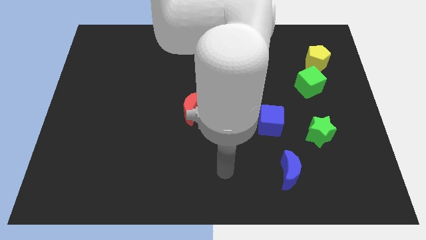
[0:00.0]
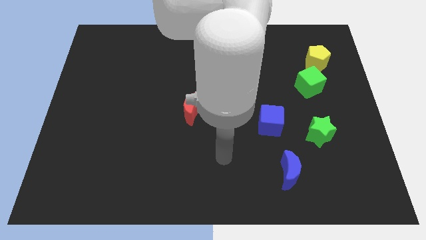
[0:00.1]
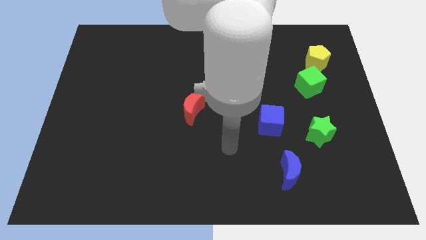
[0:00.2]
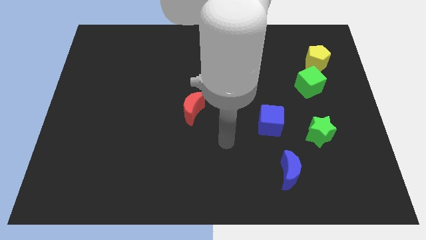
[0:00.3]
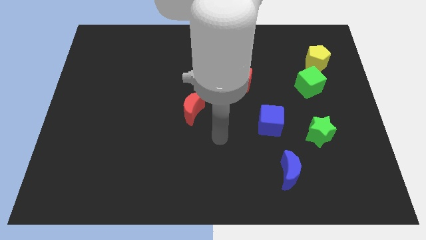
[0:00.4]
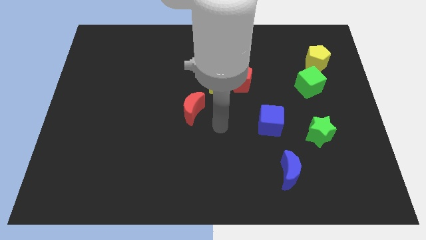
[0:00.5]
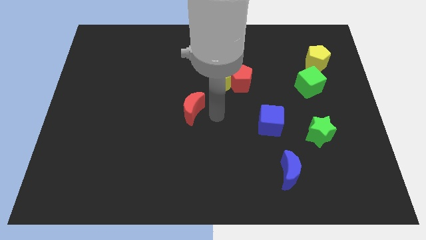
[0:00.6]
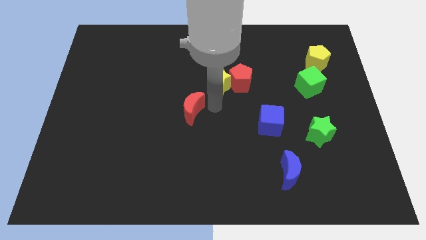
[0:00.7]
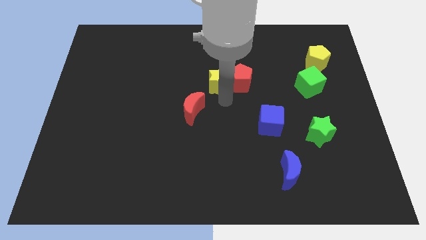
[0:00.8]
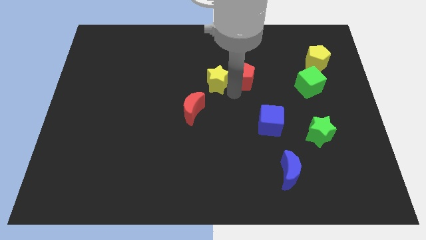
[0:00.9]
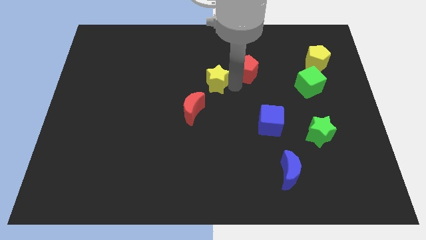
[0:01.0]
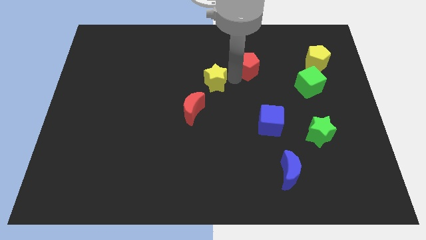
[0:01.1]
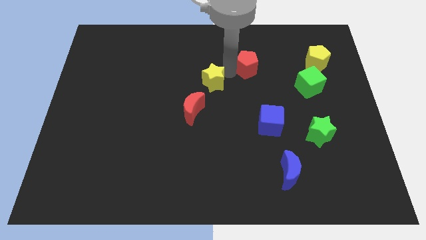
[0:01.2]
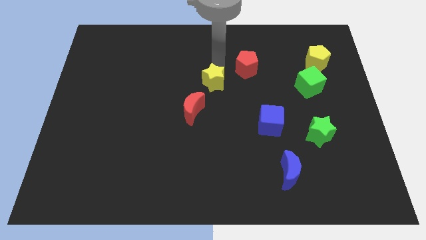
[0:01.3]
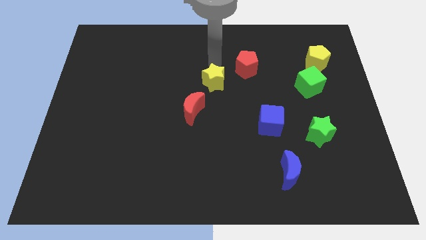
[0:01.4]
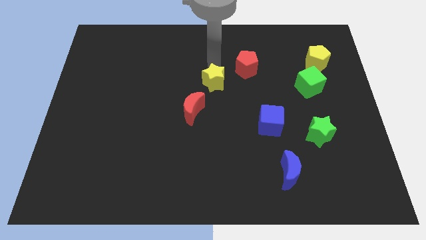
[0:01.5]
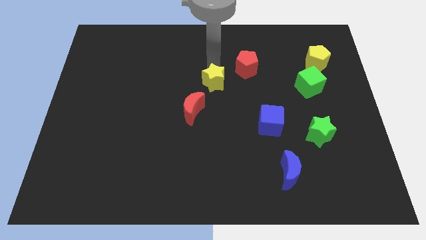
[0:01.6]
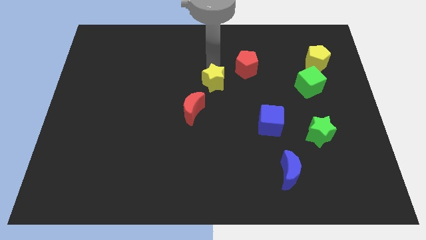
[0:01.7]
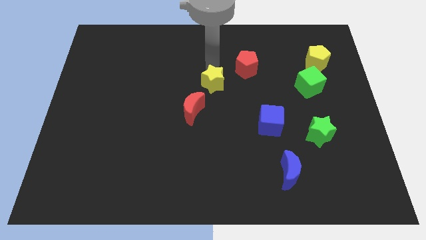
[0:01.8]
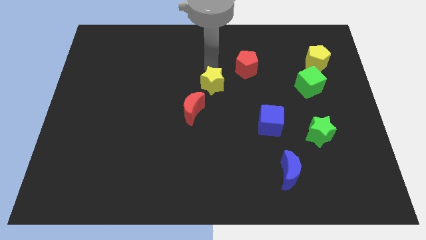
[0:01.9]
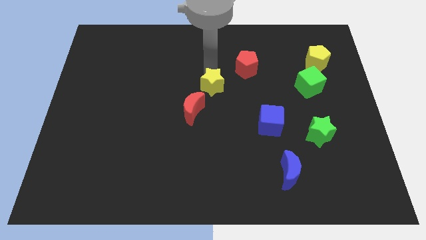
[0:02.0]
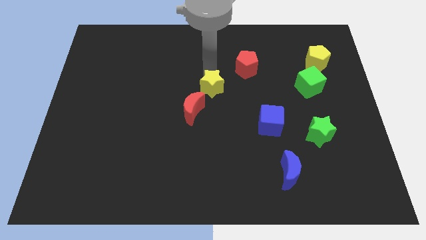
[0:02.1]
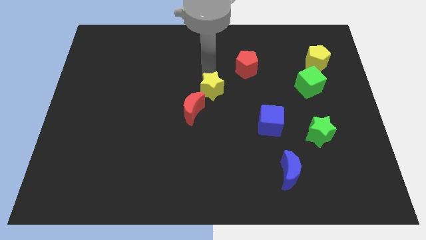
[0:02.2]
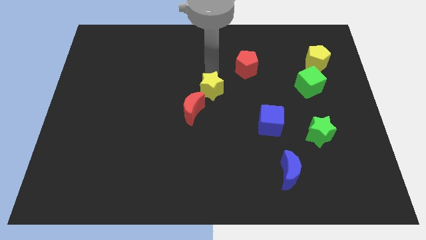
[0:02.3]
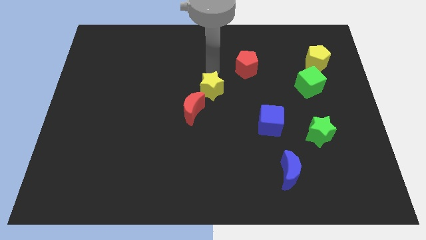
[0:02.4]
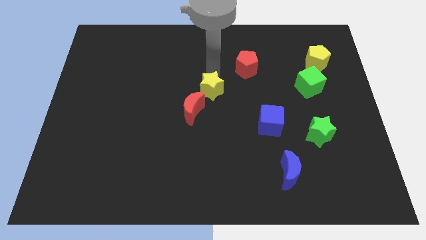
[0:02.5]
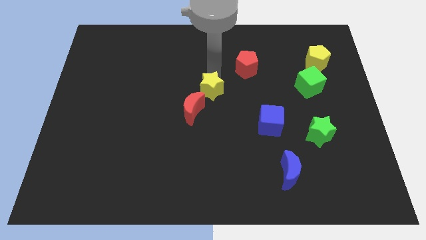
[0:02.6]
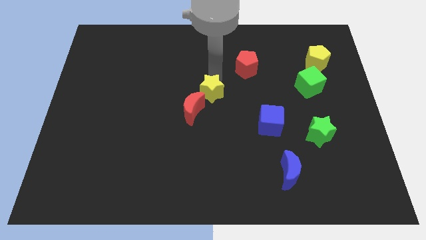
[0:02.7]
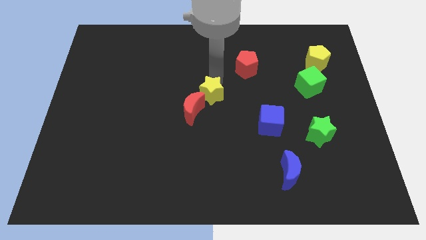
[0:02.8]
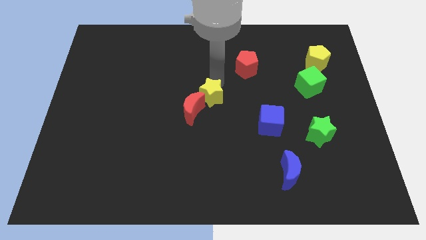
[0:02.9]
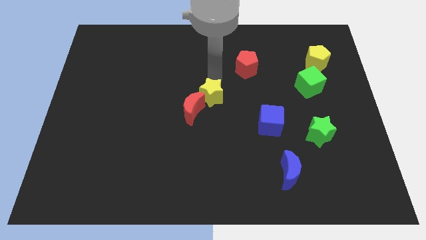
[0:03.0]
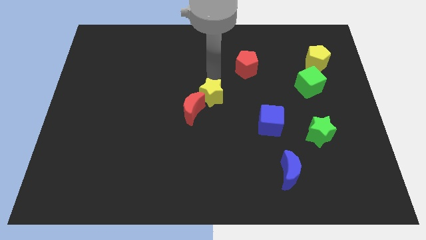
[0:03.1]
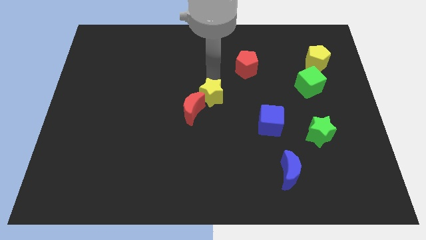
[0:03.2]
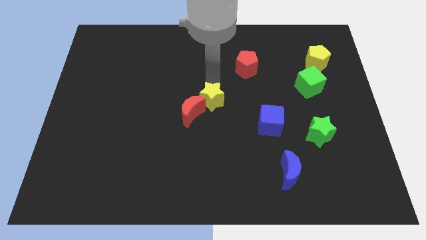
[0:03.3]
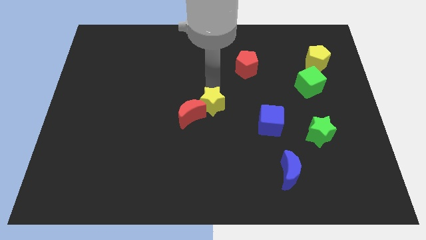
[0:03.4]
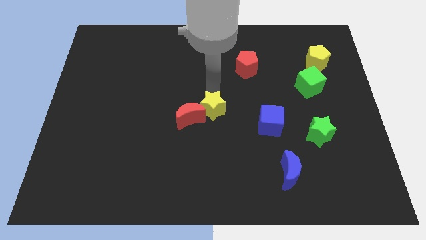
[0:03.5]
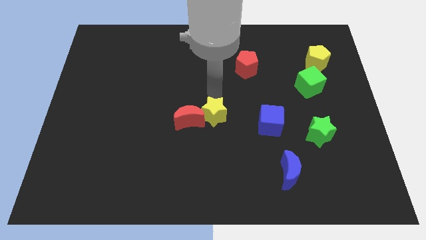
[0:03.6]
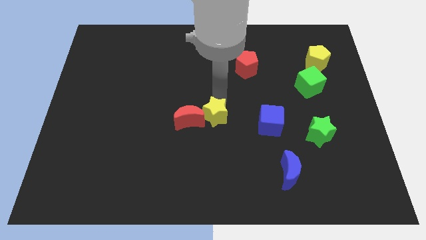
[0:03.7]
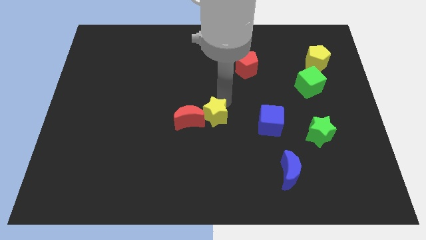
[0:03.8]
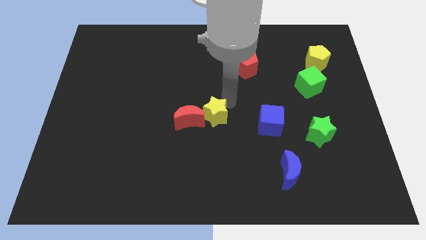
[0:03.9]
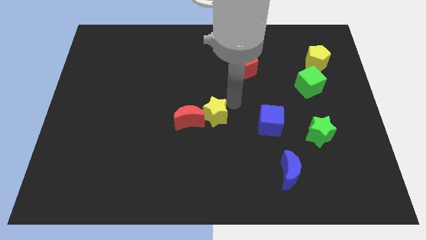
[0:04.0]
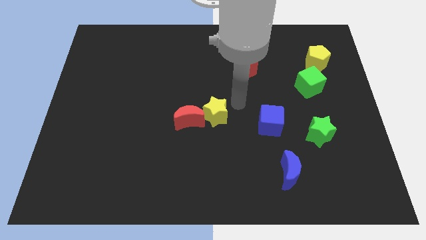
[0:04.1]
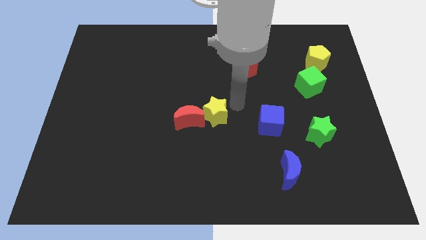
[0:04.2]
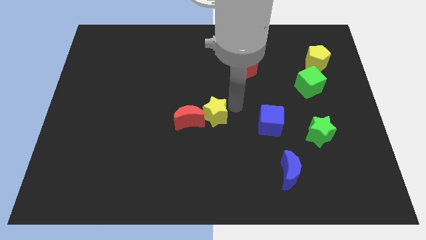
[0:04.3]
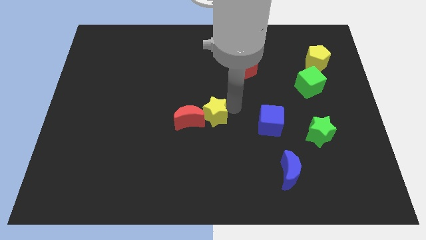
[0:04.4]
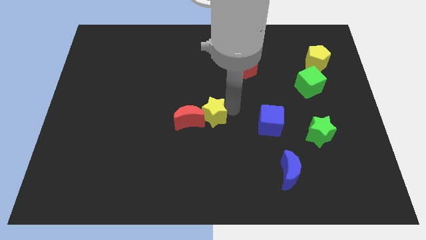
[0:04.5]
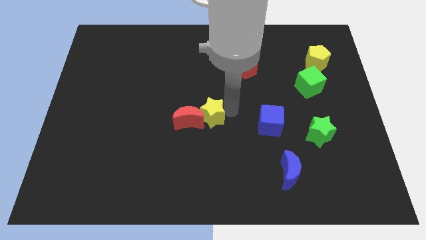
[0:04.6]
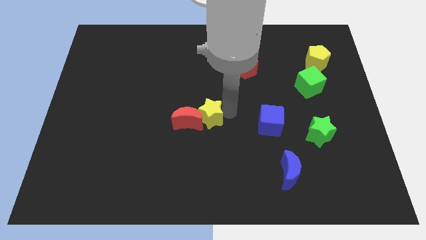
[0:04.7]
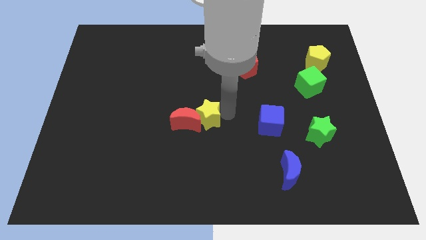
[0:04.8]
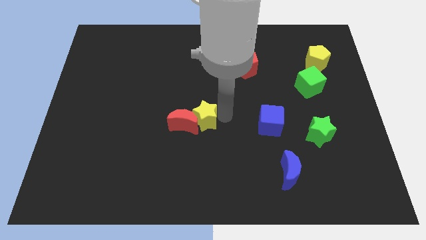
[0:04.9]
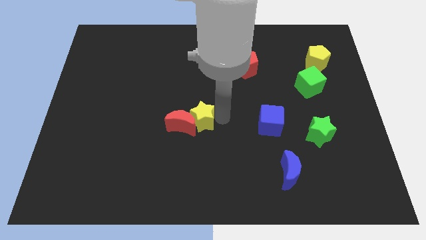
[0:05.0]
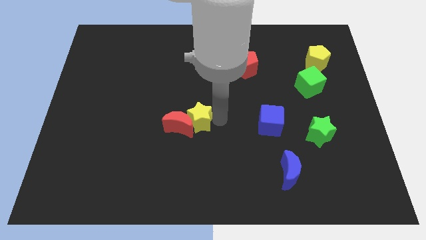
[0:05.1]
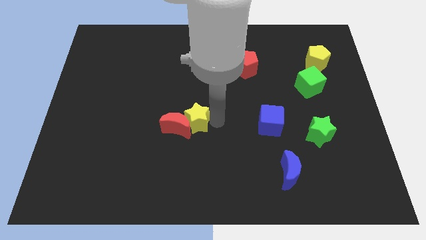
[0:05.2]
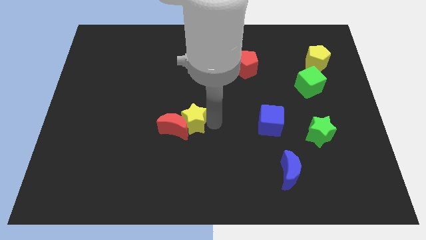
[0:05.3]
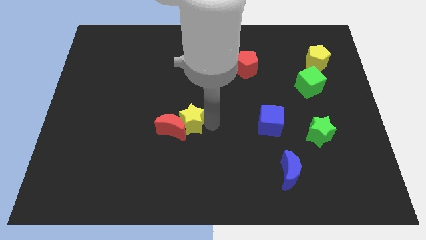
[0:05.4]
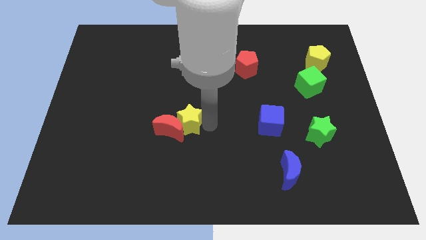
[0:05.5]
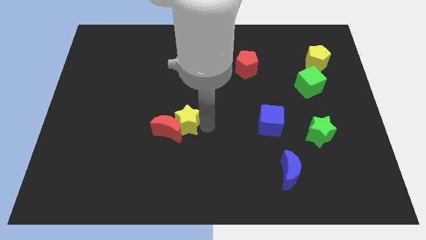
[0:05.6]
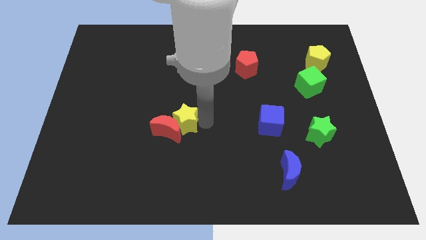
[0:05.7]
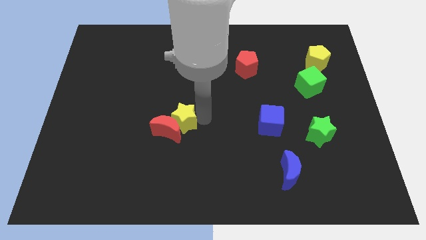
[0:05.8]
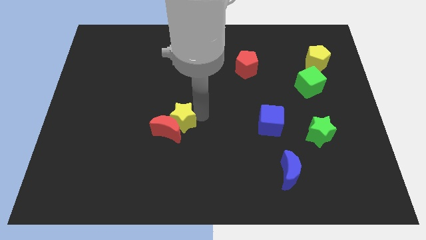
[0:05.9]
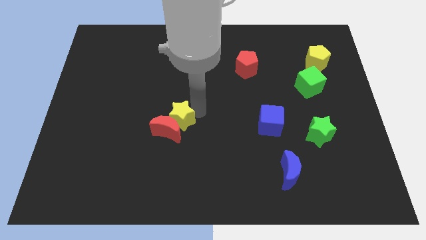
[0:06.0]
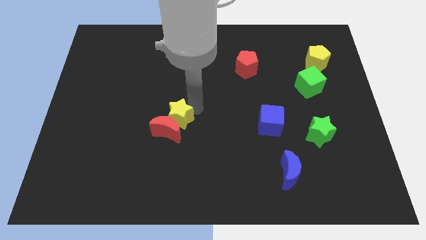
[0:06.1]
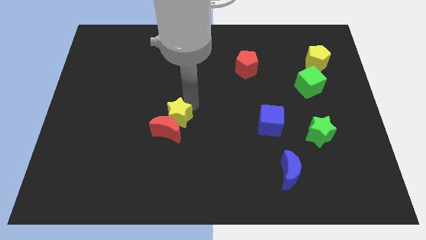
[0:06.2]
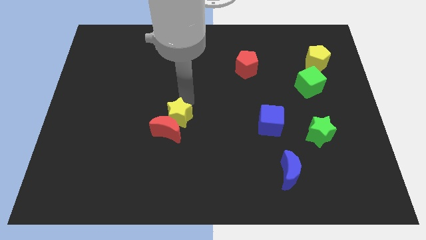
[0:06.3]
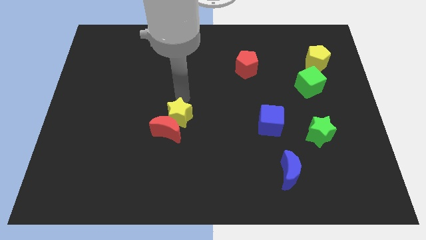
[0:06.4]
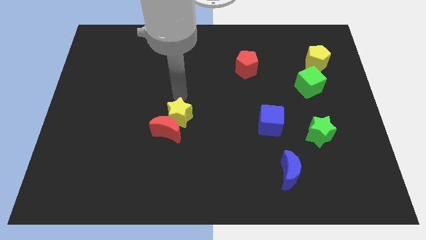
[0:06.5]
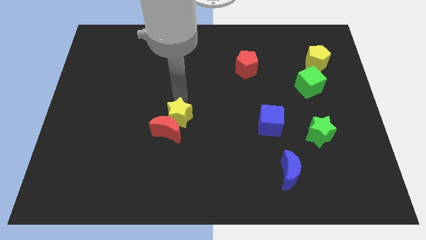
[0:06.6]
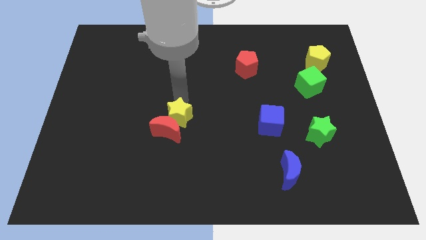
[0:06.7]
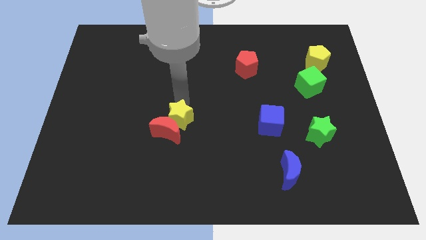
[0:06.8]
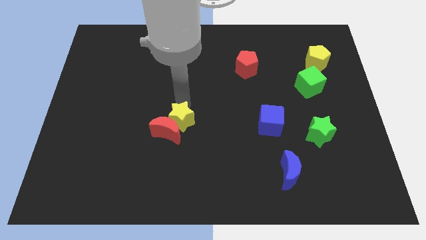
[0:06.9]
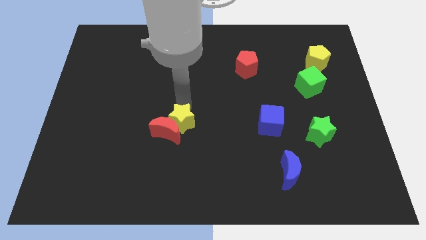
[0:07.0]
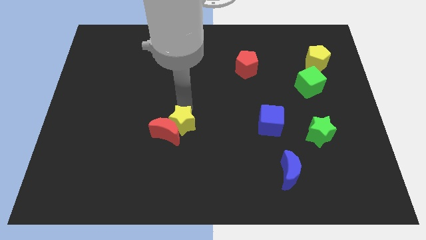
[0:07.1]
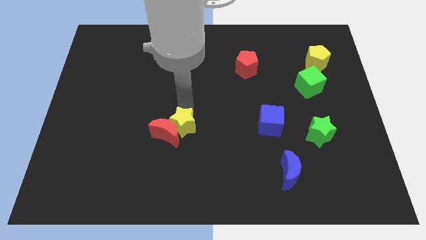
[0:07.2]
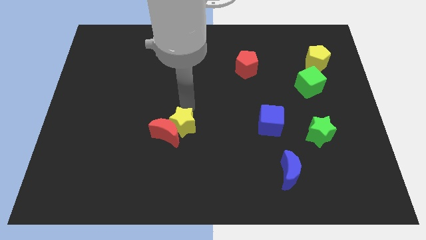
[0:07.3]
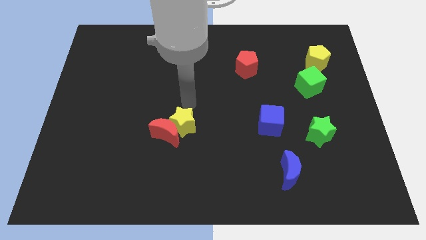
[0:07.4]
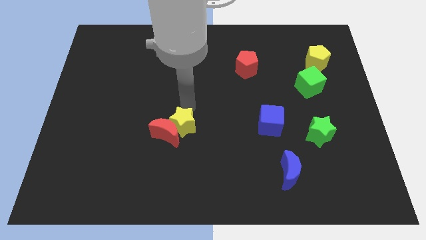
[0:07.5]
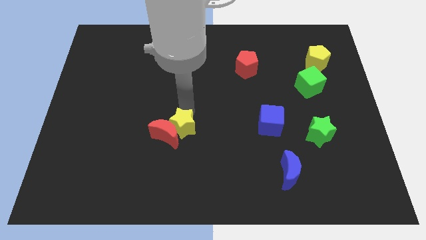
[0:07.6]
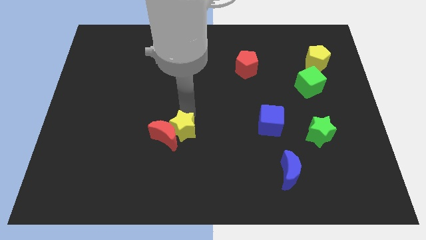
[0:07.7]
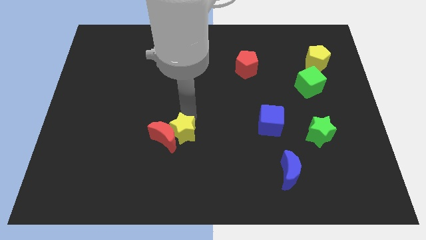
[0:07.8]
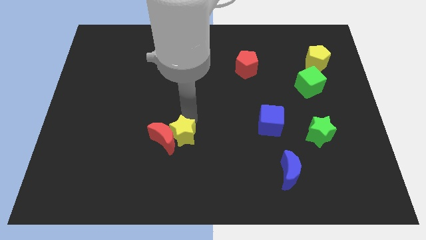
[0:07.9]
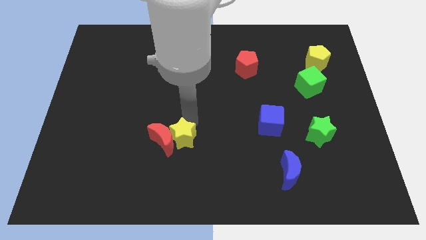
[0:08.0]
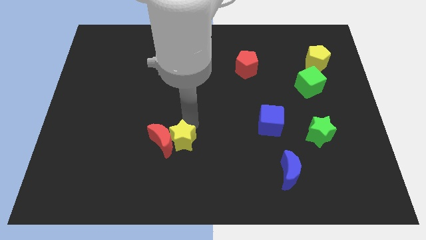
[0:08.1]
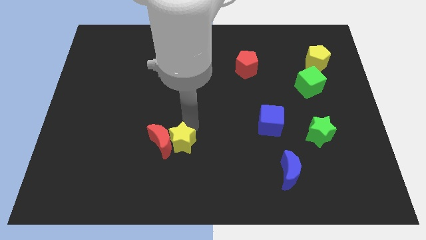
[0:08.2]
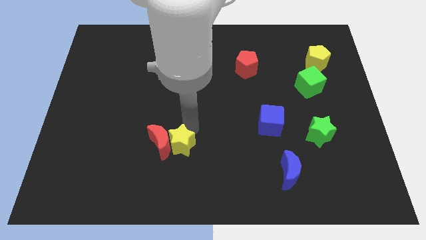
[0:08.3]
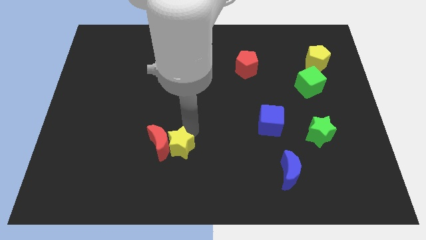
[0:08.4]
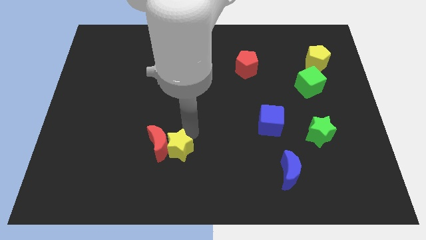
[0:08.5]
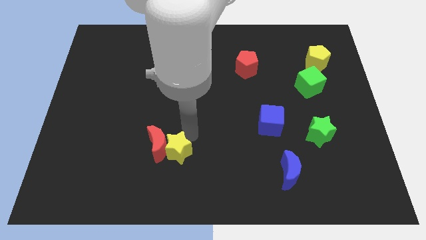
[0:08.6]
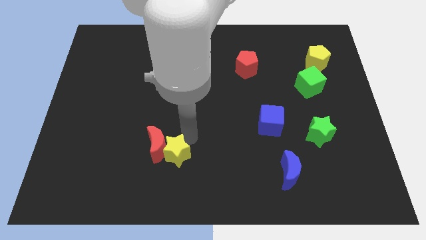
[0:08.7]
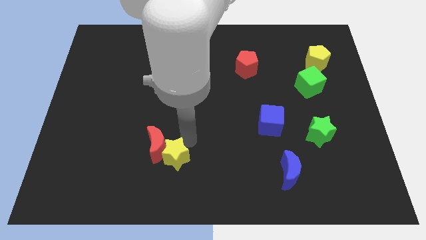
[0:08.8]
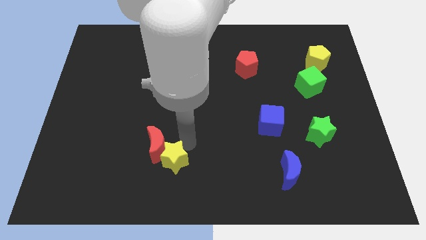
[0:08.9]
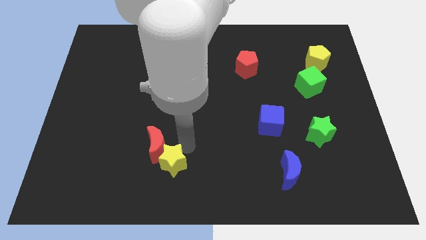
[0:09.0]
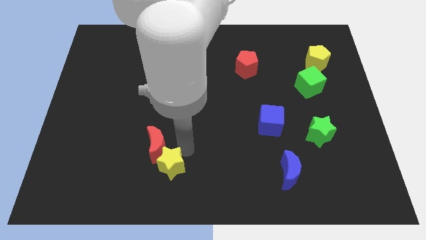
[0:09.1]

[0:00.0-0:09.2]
push the yellow star downwards and to the left diagonally
